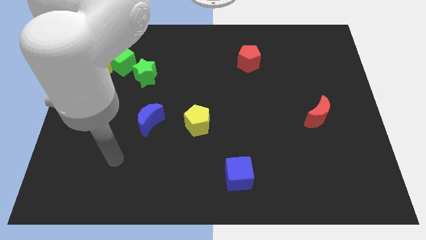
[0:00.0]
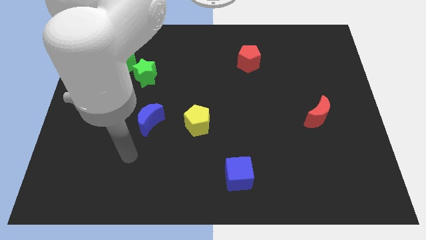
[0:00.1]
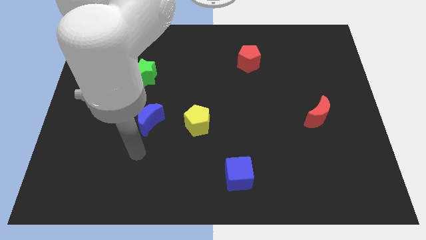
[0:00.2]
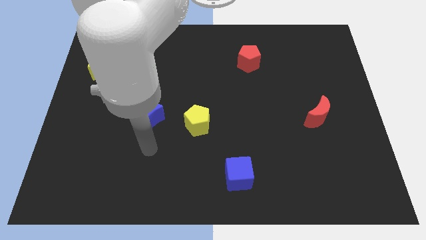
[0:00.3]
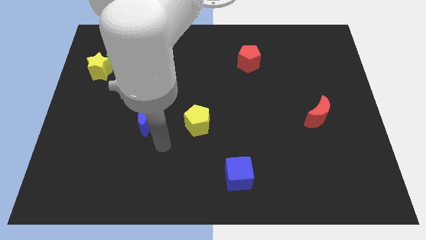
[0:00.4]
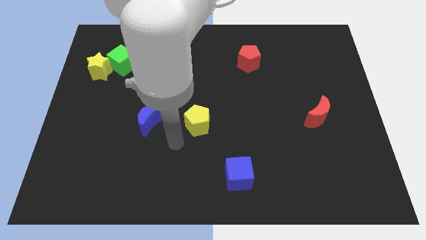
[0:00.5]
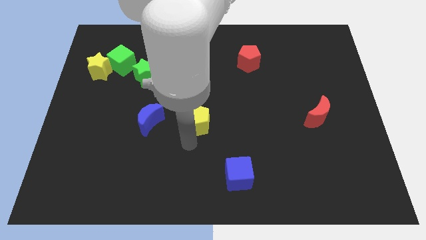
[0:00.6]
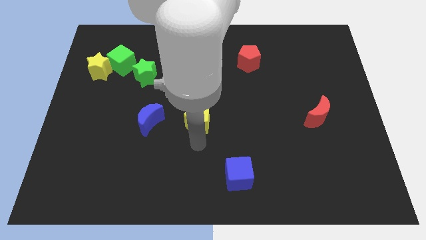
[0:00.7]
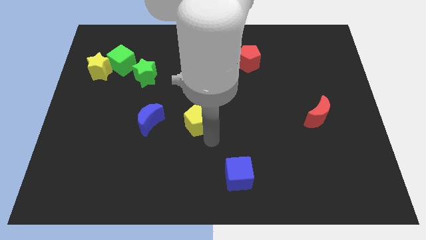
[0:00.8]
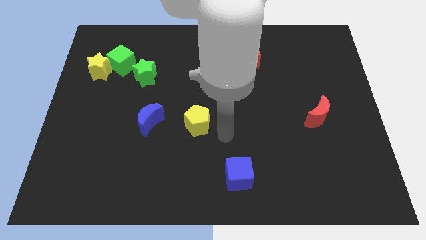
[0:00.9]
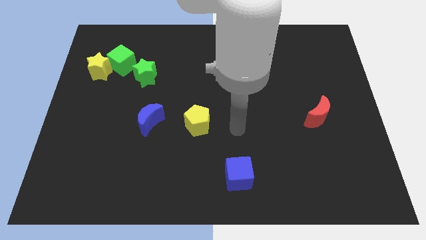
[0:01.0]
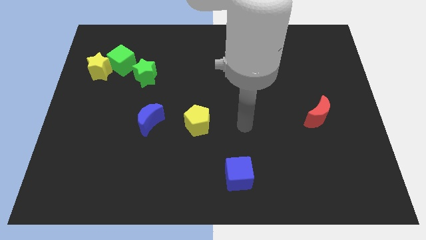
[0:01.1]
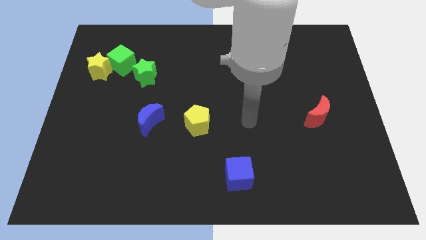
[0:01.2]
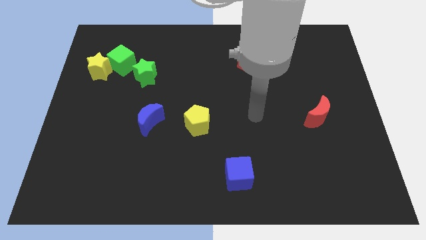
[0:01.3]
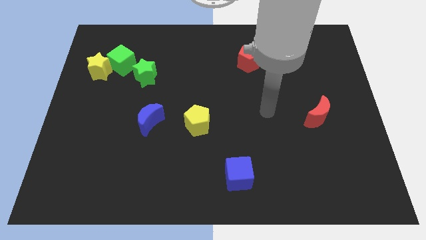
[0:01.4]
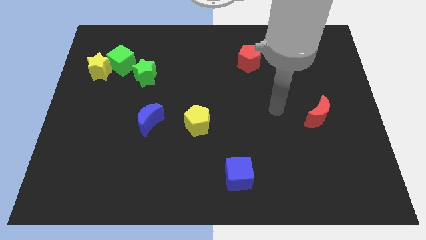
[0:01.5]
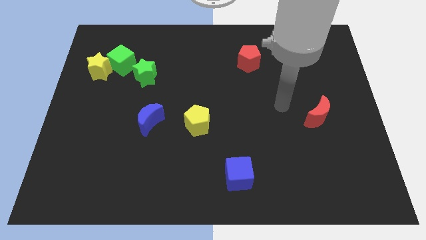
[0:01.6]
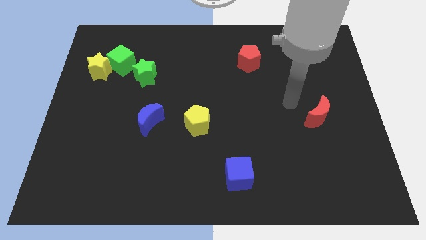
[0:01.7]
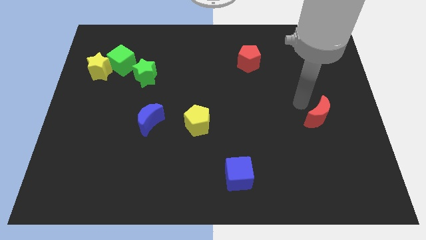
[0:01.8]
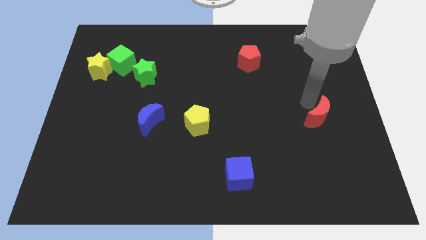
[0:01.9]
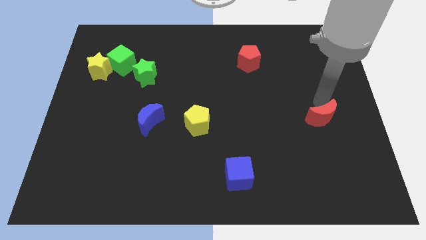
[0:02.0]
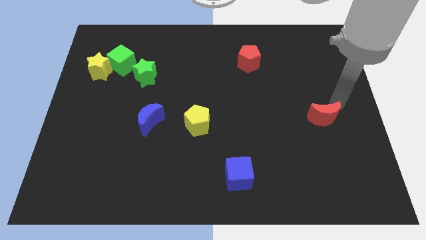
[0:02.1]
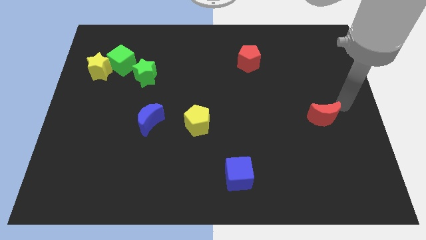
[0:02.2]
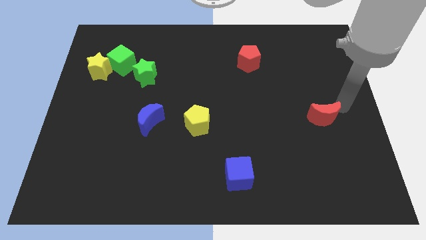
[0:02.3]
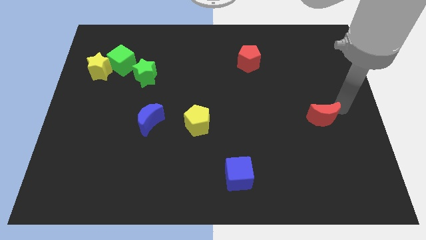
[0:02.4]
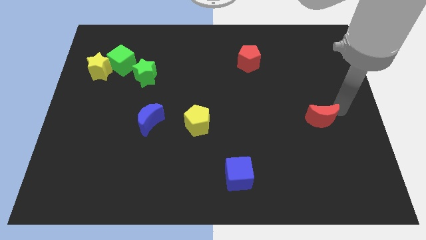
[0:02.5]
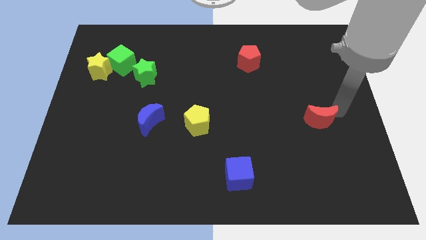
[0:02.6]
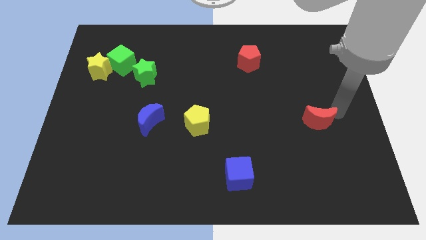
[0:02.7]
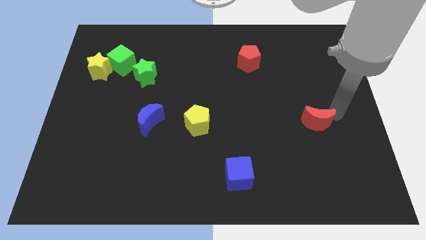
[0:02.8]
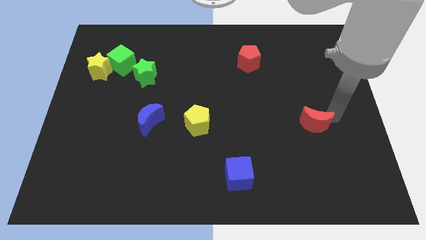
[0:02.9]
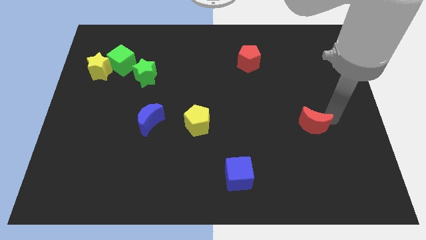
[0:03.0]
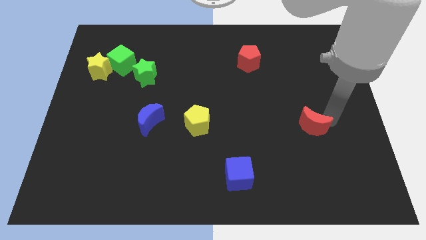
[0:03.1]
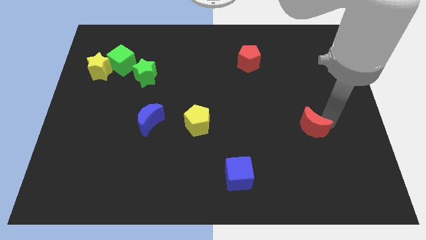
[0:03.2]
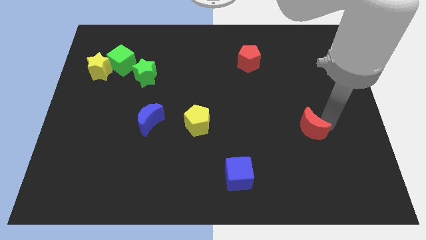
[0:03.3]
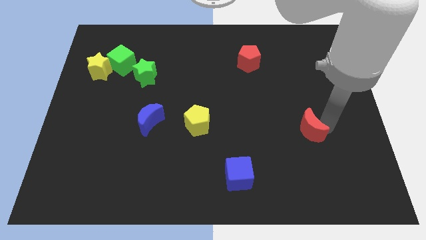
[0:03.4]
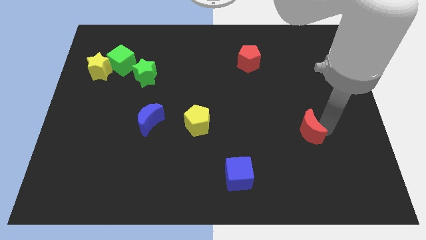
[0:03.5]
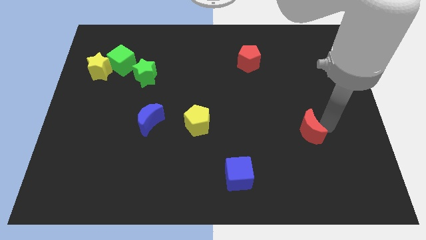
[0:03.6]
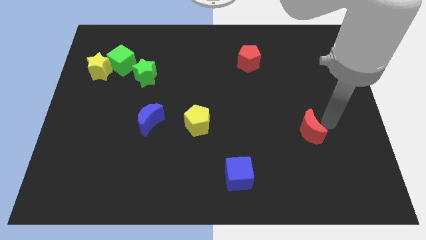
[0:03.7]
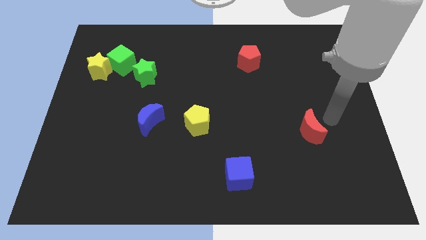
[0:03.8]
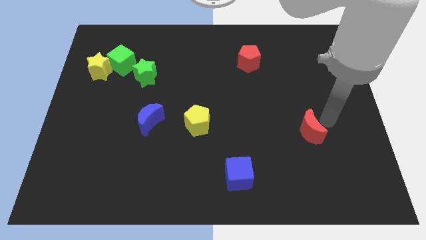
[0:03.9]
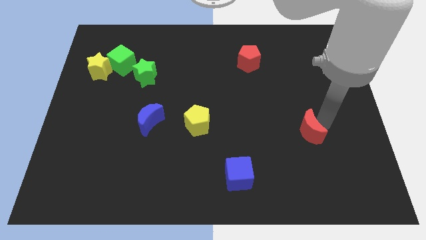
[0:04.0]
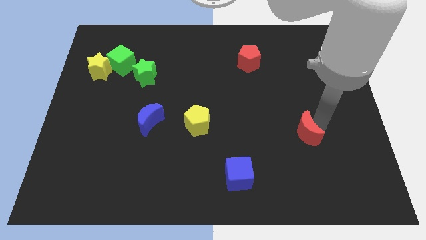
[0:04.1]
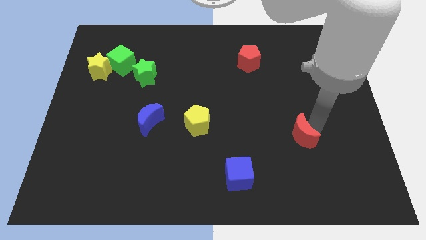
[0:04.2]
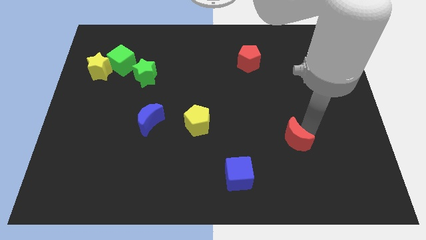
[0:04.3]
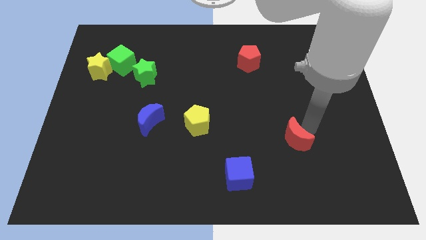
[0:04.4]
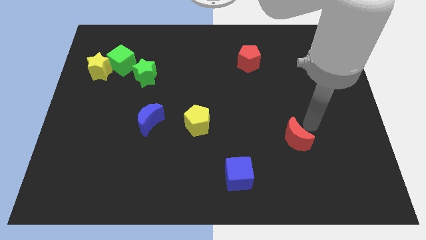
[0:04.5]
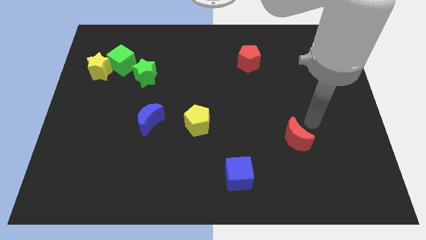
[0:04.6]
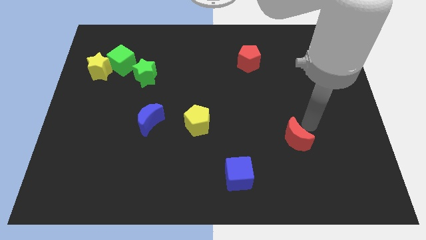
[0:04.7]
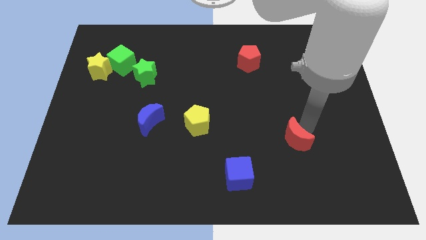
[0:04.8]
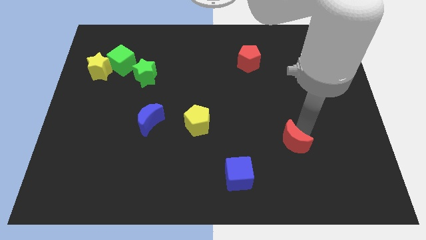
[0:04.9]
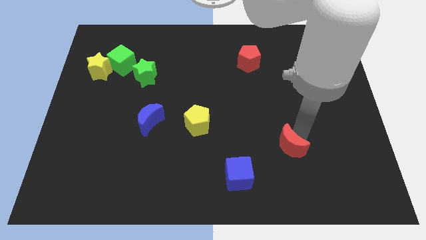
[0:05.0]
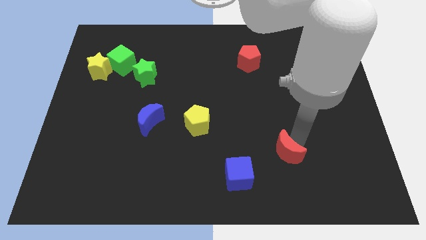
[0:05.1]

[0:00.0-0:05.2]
slide the red moon to the top right of the blue cube

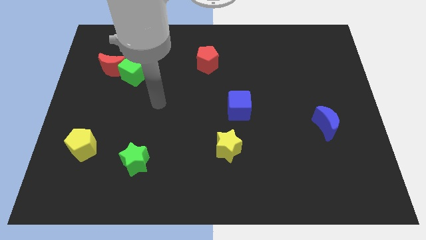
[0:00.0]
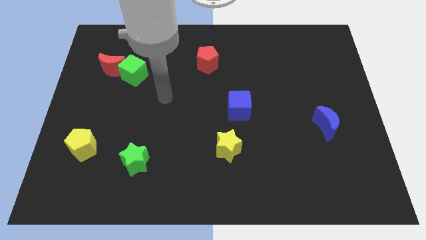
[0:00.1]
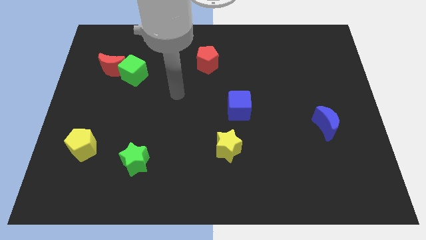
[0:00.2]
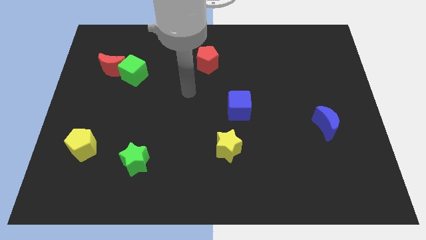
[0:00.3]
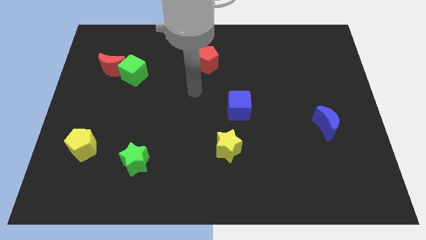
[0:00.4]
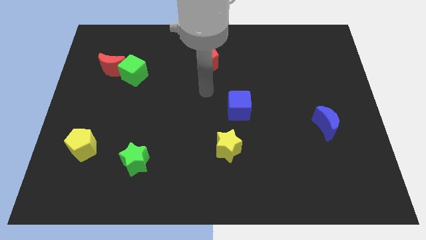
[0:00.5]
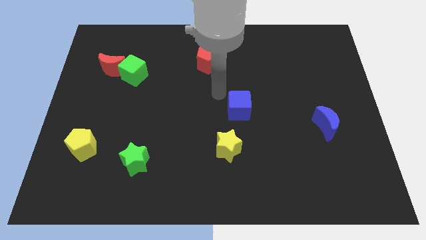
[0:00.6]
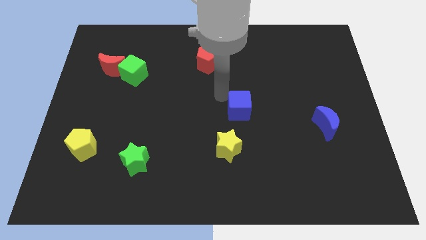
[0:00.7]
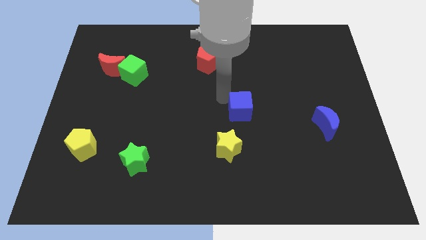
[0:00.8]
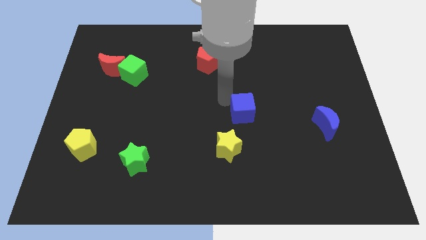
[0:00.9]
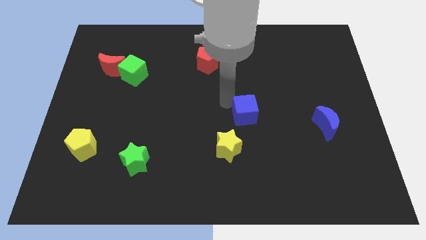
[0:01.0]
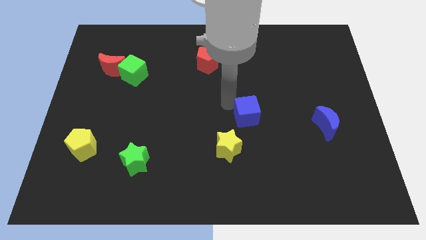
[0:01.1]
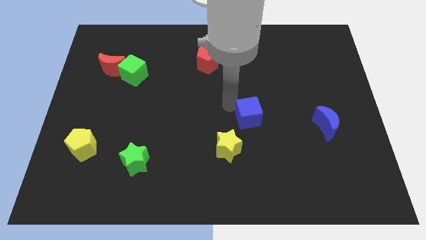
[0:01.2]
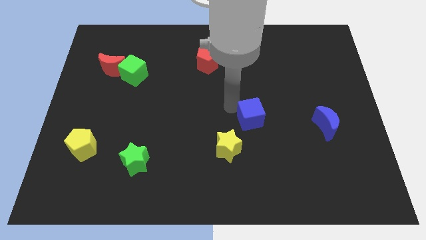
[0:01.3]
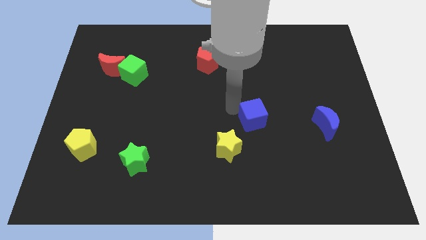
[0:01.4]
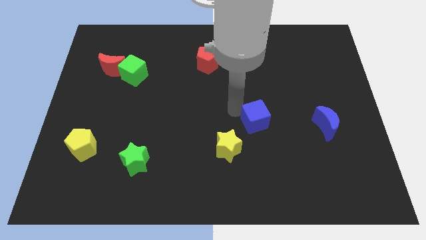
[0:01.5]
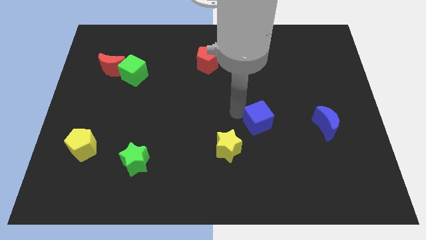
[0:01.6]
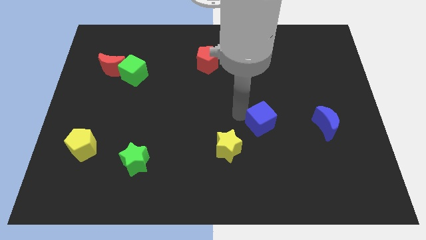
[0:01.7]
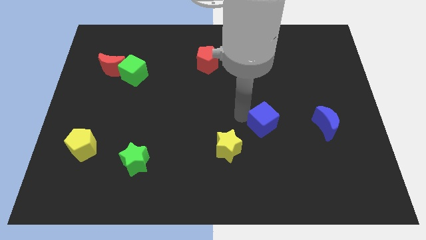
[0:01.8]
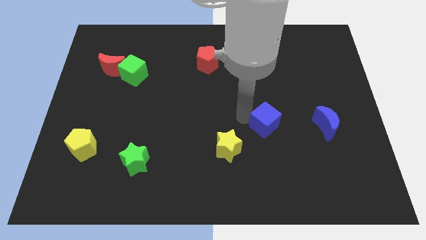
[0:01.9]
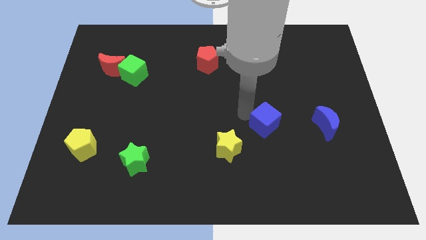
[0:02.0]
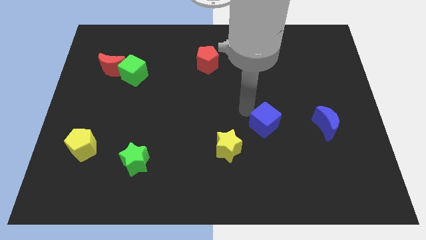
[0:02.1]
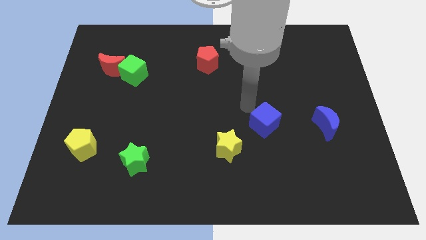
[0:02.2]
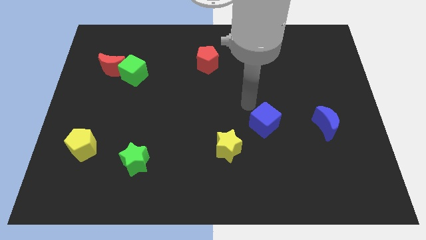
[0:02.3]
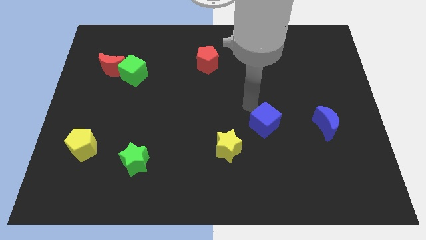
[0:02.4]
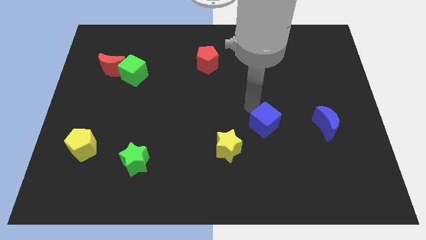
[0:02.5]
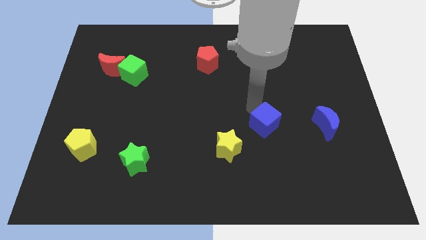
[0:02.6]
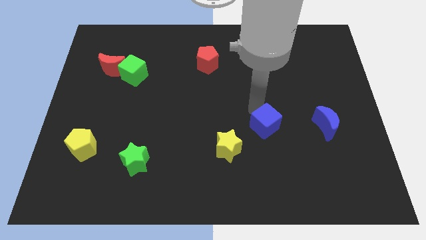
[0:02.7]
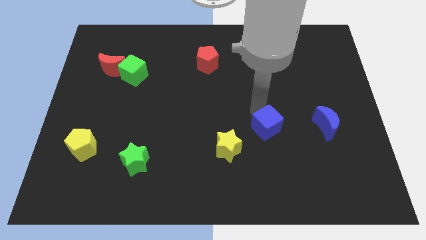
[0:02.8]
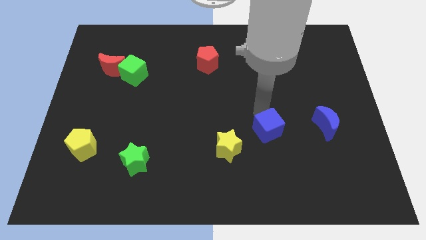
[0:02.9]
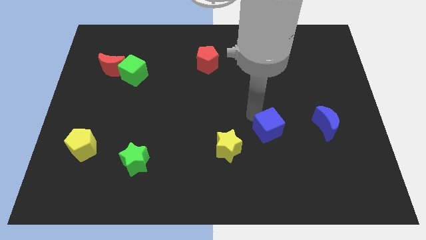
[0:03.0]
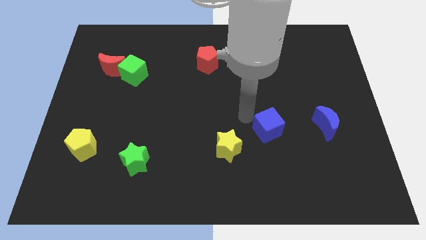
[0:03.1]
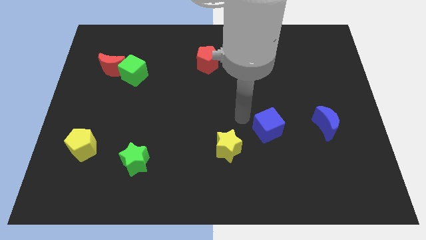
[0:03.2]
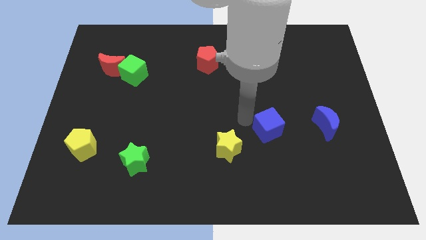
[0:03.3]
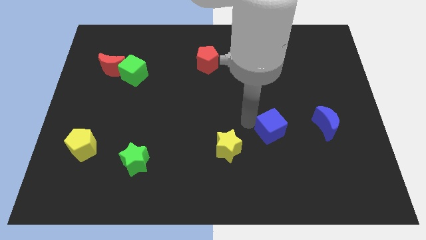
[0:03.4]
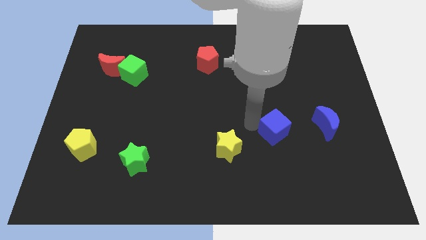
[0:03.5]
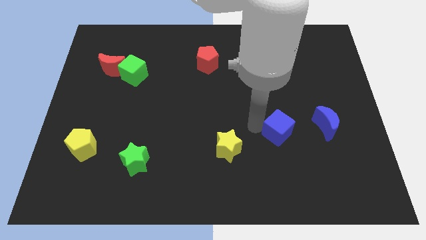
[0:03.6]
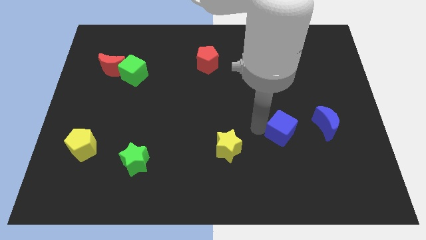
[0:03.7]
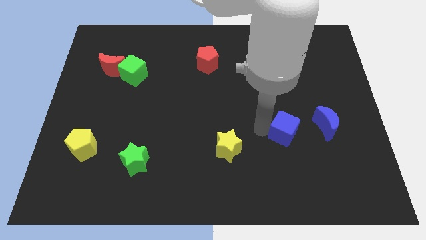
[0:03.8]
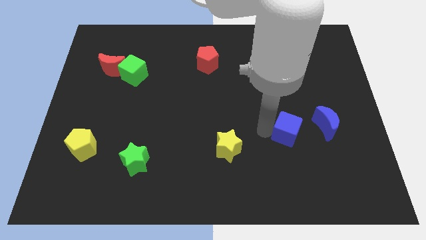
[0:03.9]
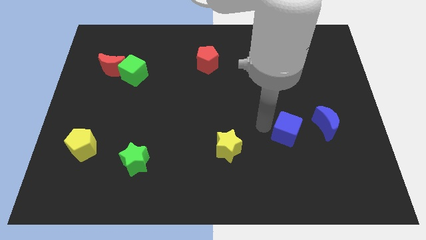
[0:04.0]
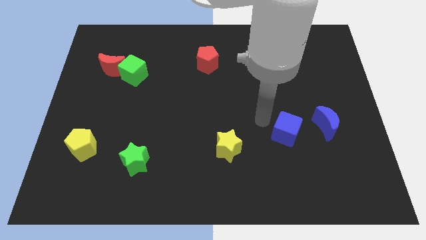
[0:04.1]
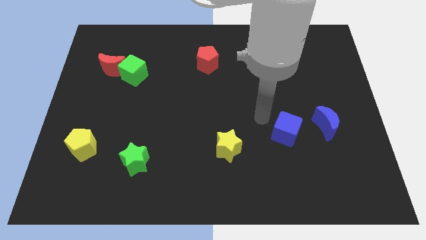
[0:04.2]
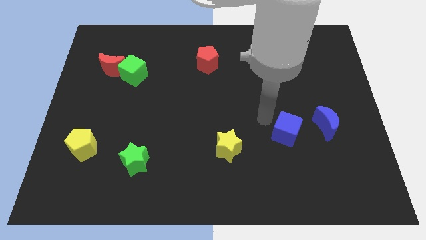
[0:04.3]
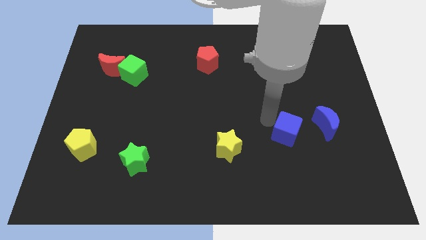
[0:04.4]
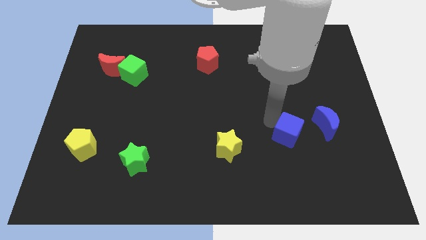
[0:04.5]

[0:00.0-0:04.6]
slide the blue cube to the bottom left of the blue moon
